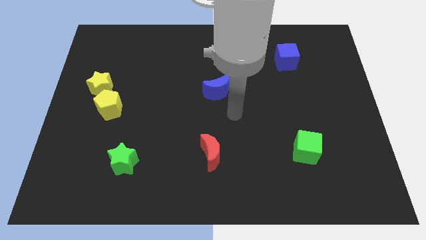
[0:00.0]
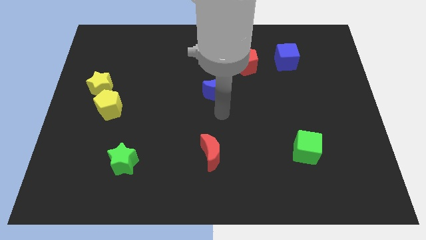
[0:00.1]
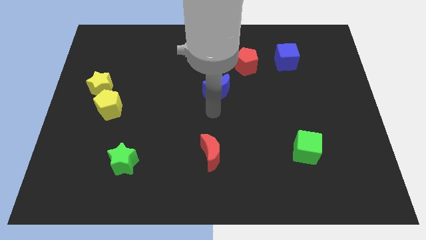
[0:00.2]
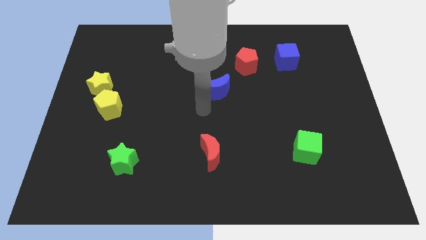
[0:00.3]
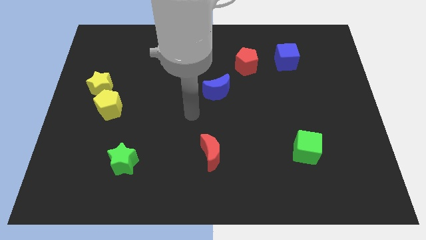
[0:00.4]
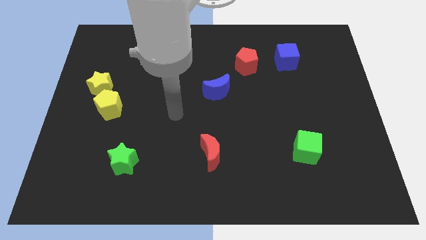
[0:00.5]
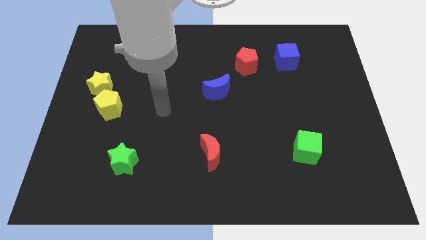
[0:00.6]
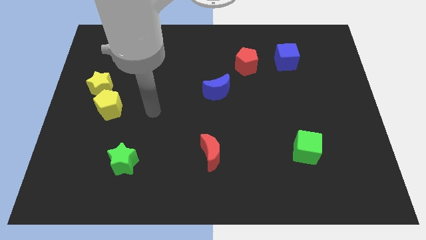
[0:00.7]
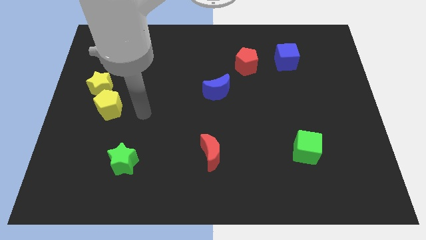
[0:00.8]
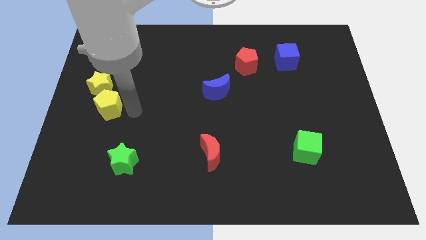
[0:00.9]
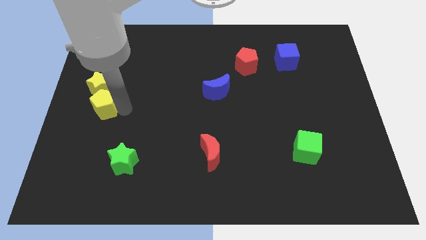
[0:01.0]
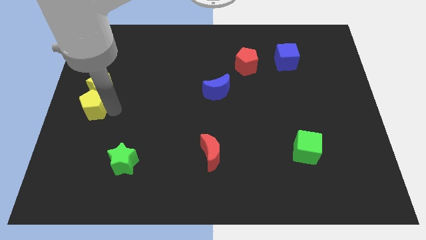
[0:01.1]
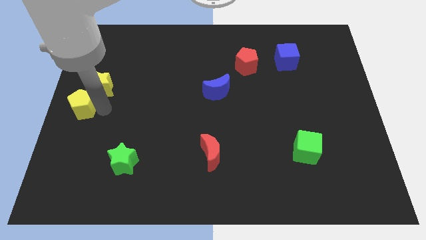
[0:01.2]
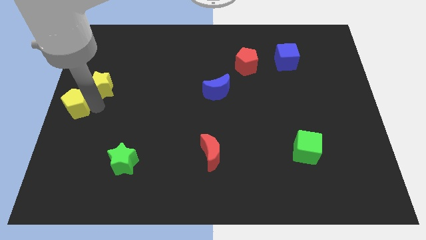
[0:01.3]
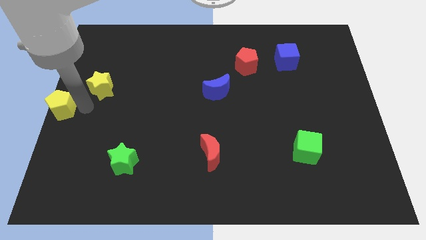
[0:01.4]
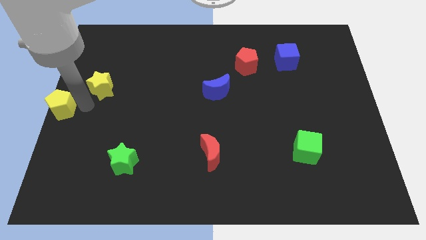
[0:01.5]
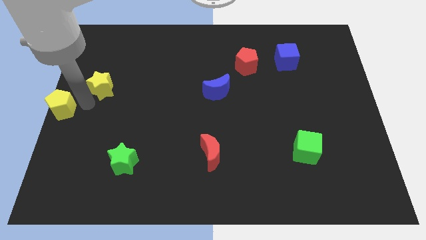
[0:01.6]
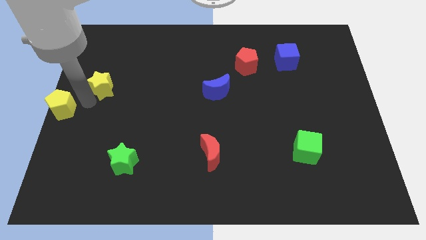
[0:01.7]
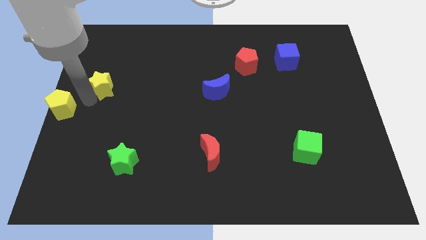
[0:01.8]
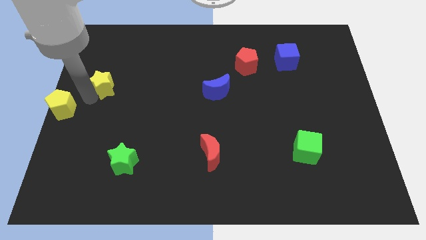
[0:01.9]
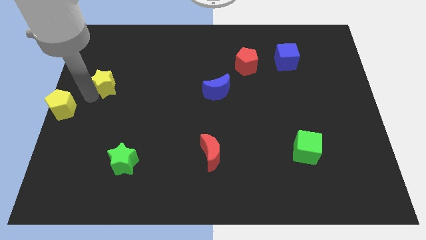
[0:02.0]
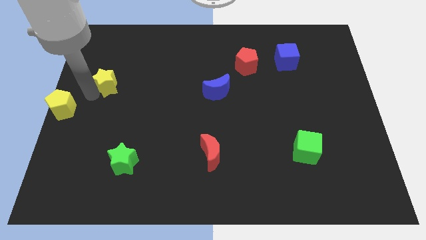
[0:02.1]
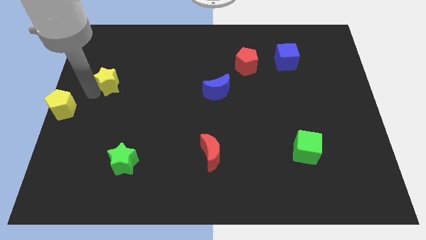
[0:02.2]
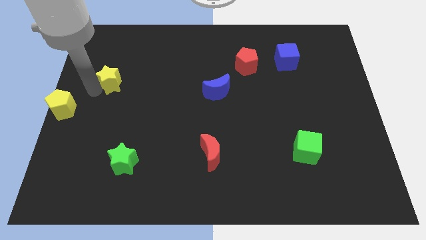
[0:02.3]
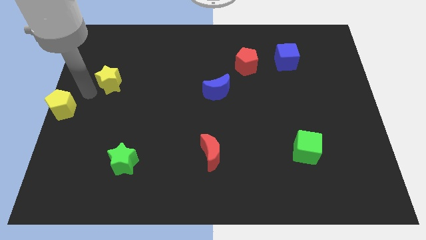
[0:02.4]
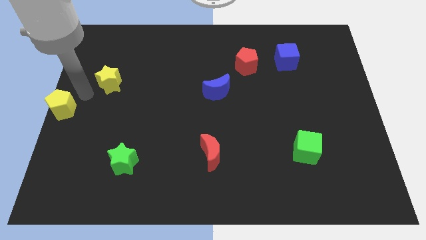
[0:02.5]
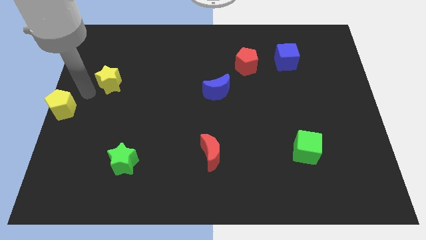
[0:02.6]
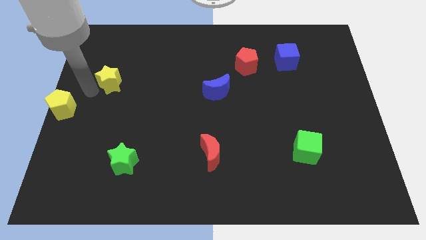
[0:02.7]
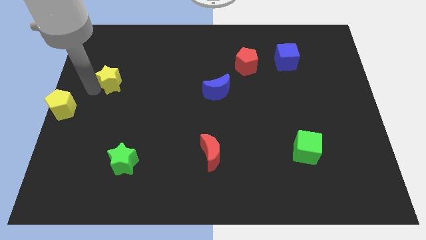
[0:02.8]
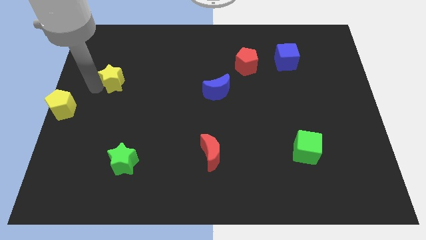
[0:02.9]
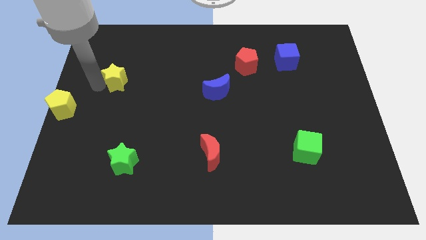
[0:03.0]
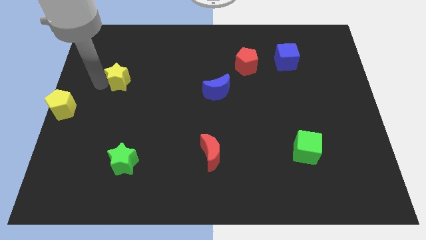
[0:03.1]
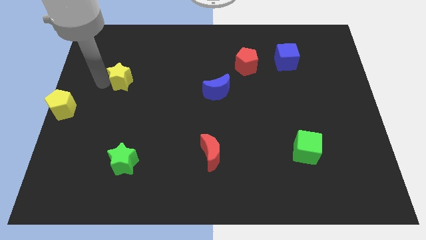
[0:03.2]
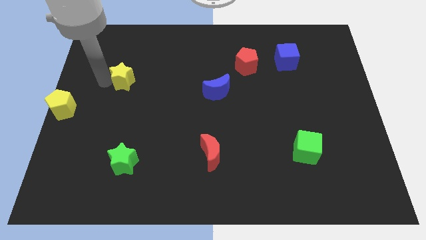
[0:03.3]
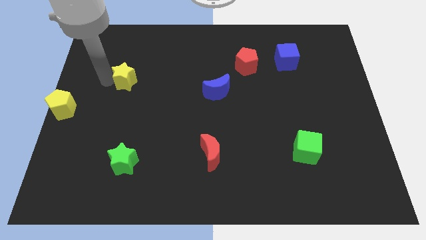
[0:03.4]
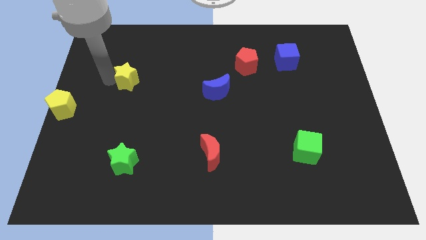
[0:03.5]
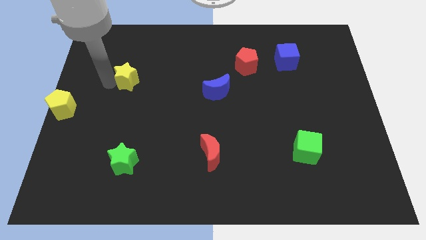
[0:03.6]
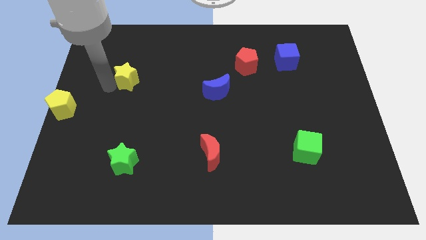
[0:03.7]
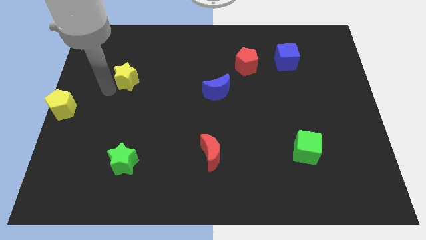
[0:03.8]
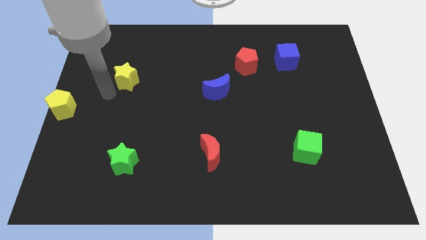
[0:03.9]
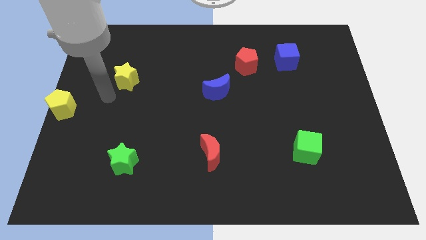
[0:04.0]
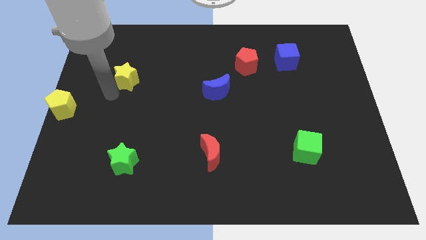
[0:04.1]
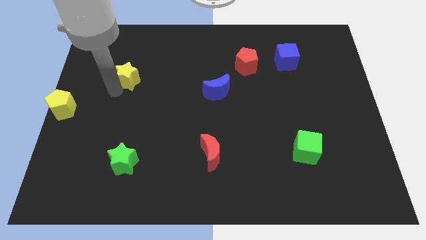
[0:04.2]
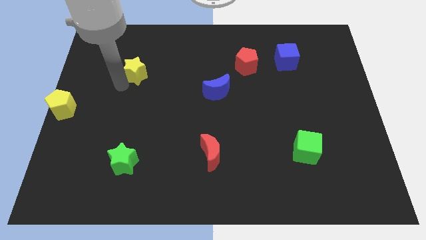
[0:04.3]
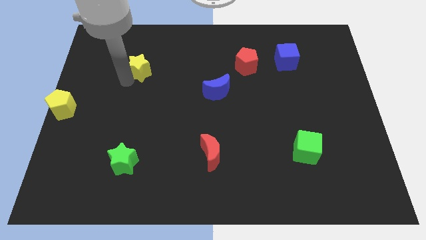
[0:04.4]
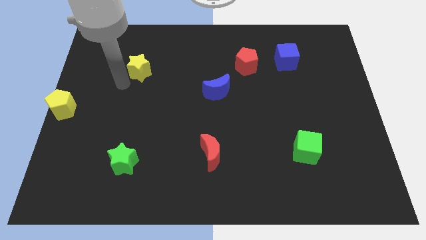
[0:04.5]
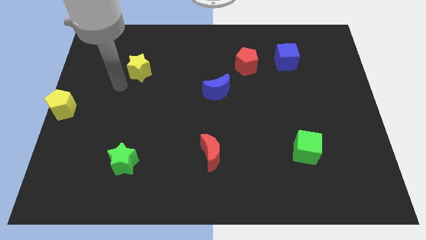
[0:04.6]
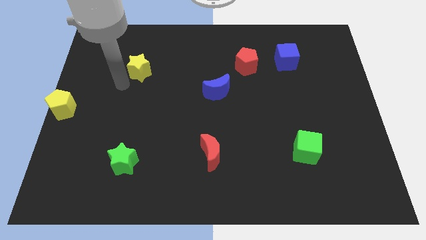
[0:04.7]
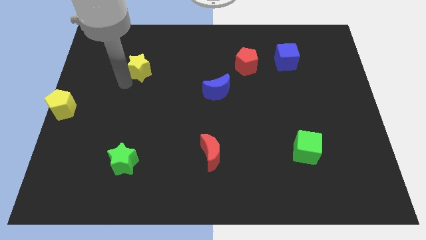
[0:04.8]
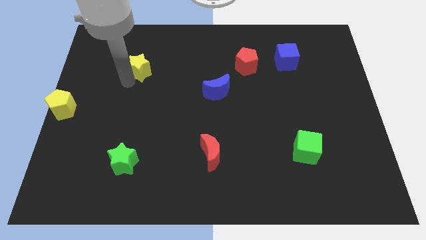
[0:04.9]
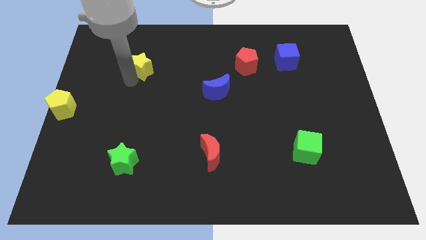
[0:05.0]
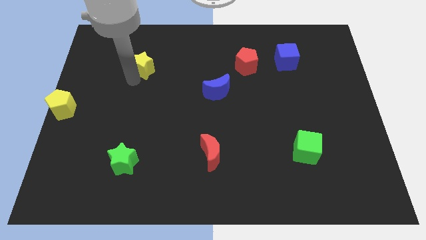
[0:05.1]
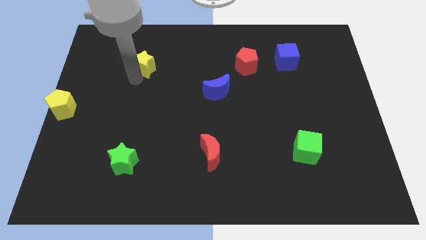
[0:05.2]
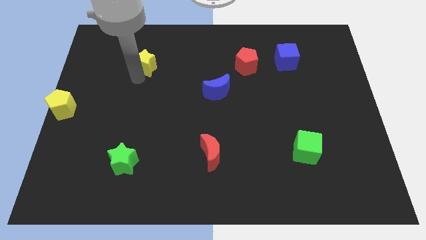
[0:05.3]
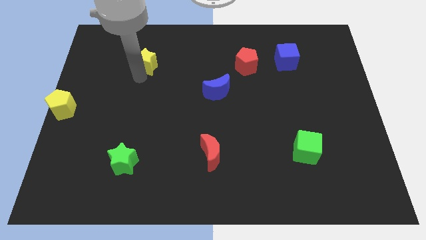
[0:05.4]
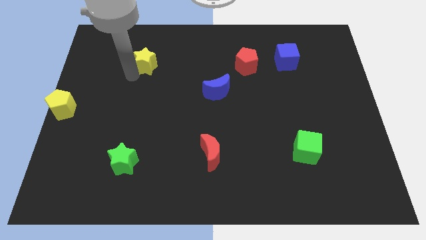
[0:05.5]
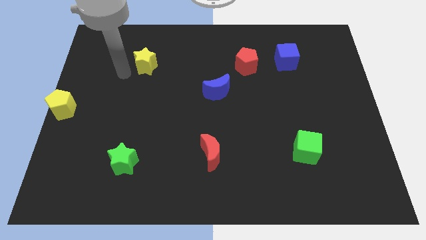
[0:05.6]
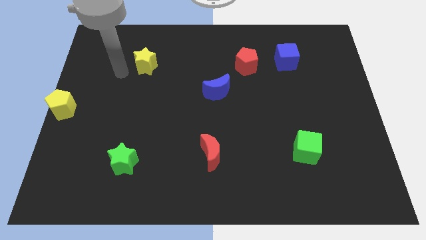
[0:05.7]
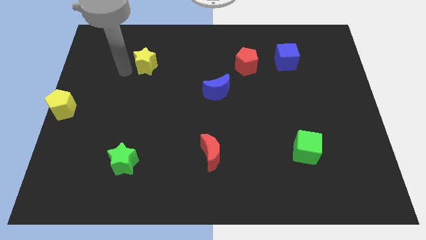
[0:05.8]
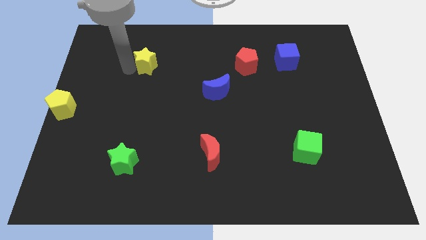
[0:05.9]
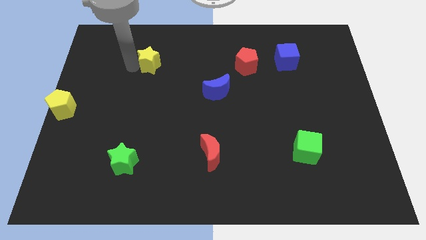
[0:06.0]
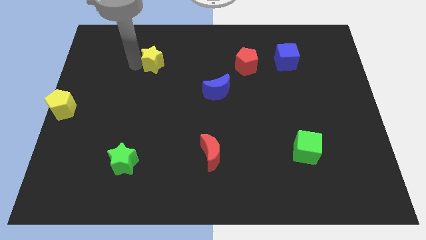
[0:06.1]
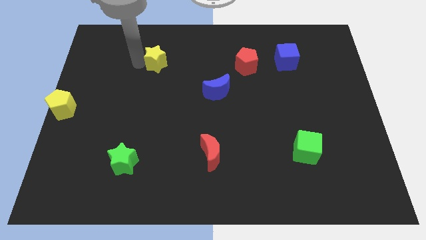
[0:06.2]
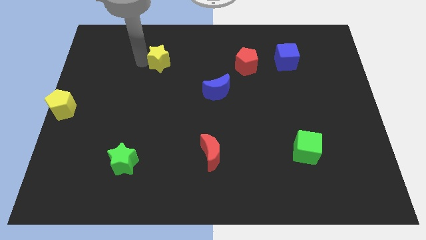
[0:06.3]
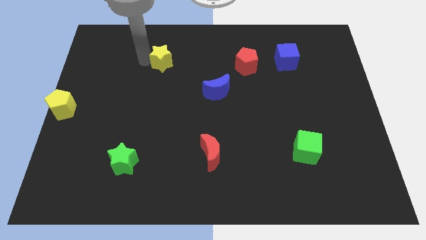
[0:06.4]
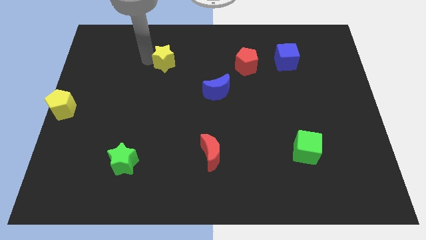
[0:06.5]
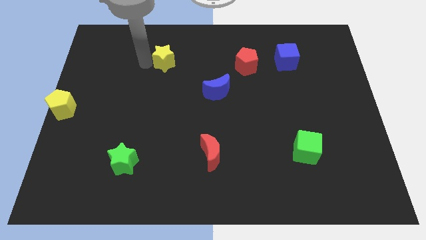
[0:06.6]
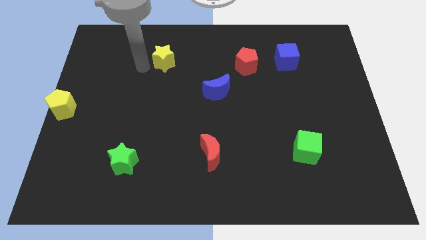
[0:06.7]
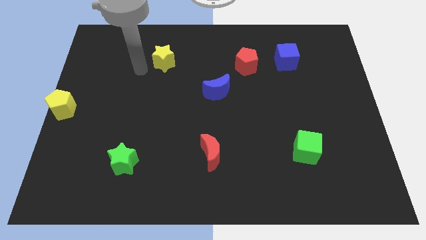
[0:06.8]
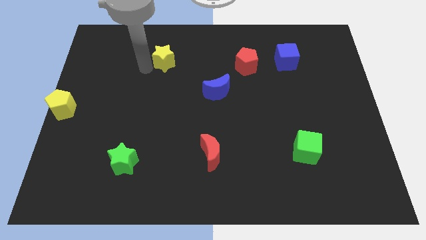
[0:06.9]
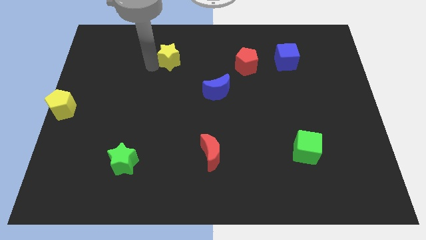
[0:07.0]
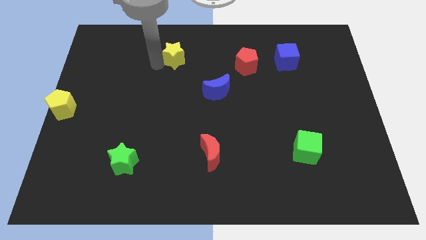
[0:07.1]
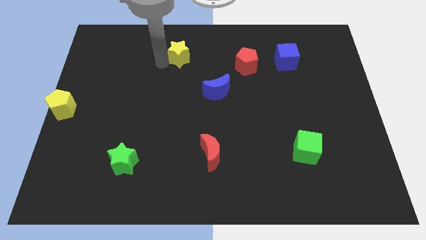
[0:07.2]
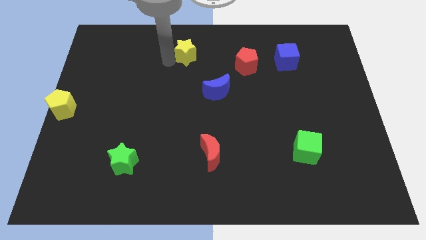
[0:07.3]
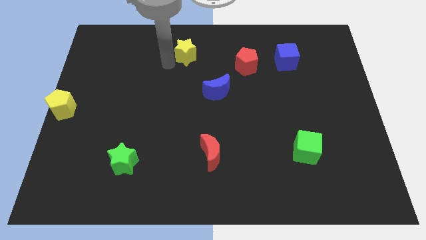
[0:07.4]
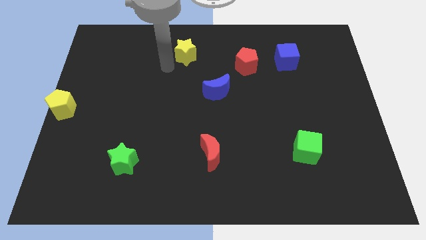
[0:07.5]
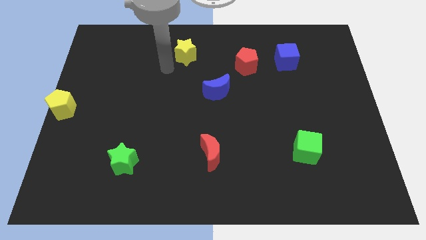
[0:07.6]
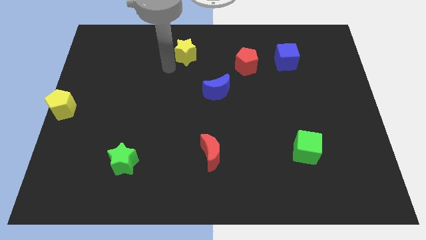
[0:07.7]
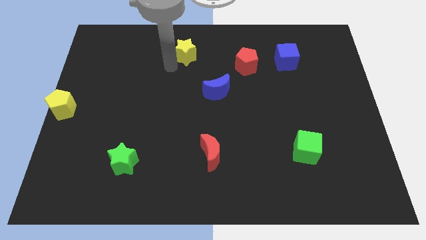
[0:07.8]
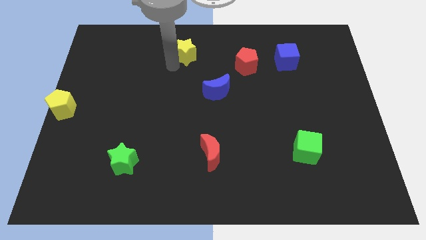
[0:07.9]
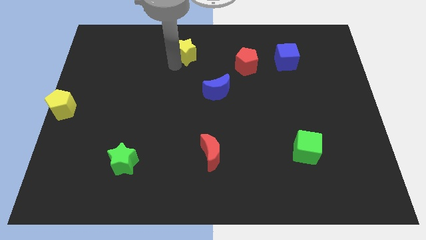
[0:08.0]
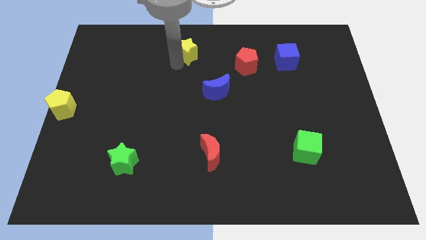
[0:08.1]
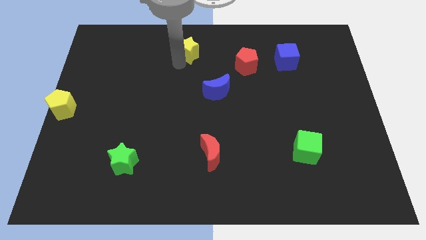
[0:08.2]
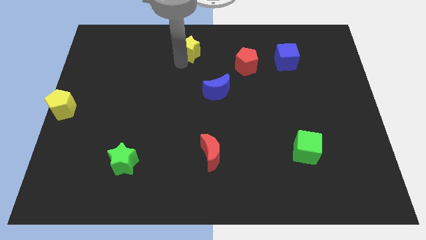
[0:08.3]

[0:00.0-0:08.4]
slide the yellow star to the towards your base
